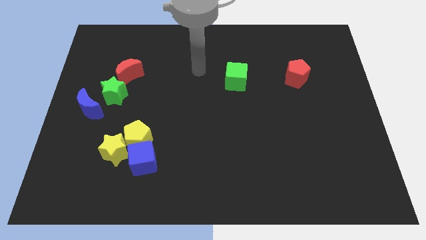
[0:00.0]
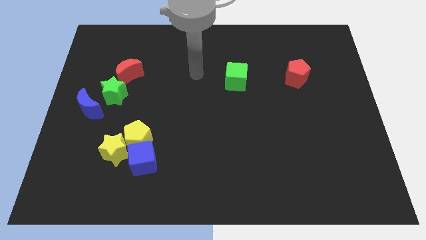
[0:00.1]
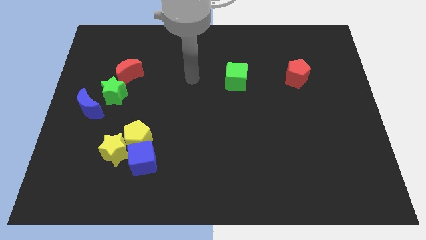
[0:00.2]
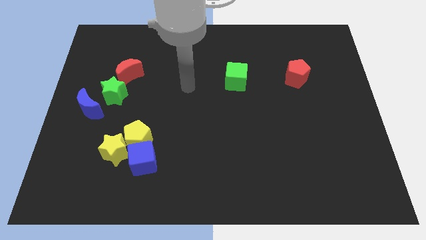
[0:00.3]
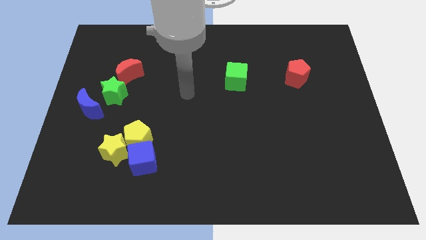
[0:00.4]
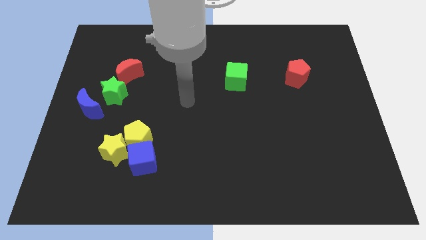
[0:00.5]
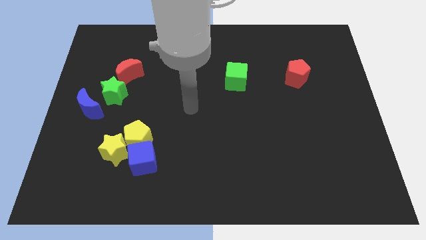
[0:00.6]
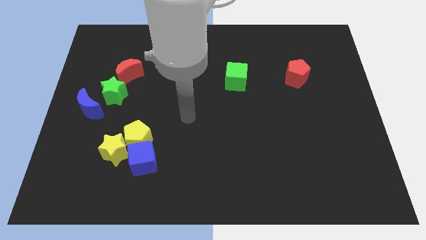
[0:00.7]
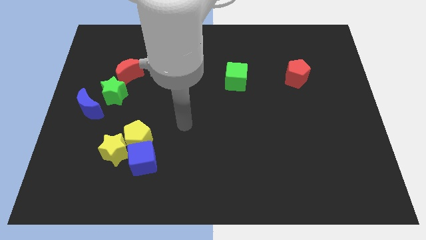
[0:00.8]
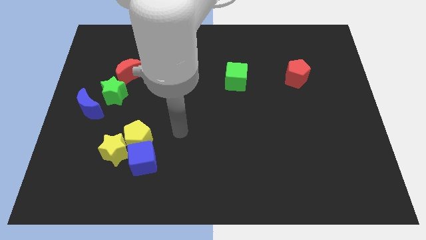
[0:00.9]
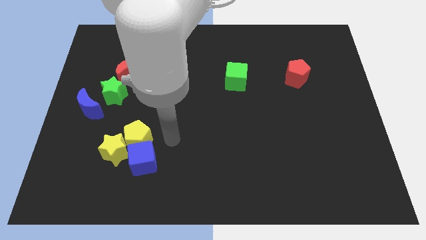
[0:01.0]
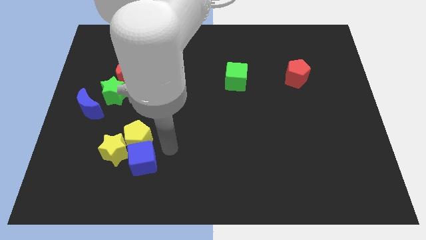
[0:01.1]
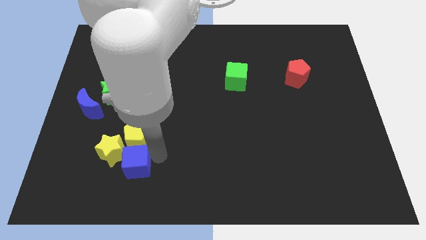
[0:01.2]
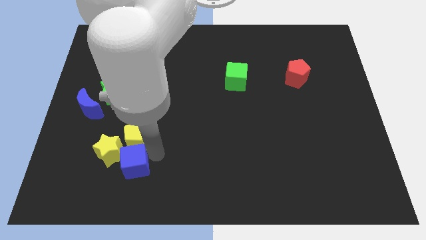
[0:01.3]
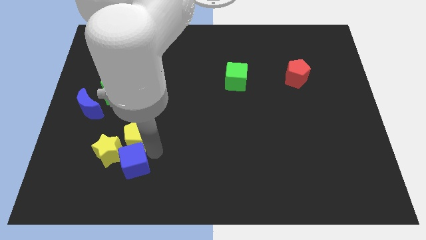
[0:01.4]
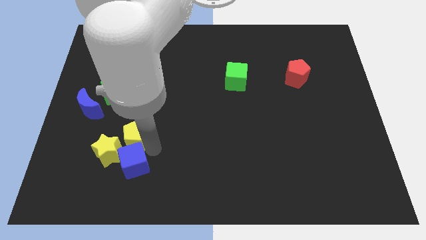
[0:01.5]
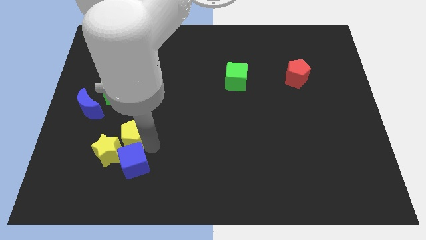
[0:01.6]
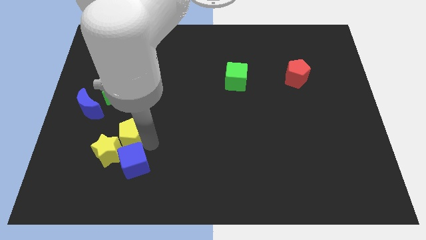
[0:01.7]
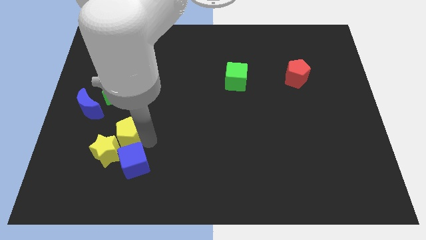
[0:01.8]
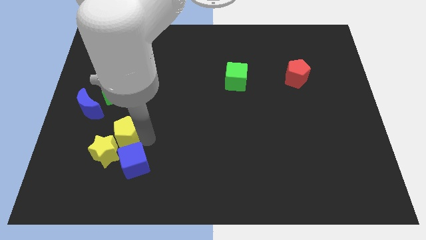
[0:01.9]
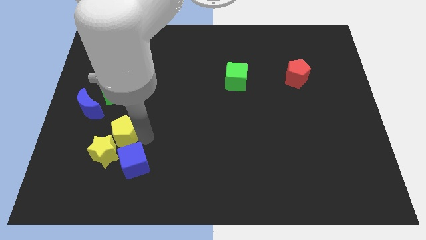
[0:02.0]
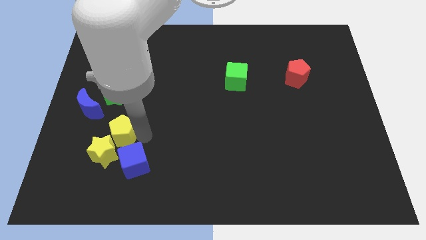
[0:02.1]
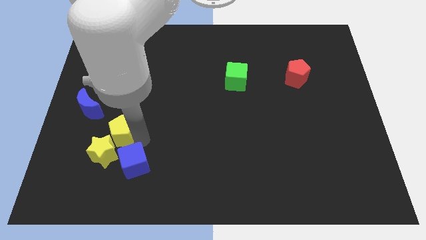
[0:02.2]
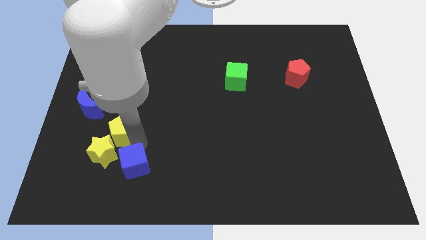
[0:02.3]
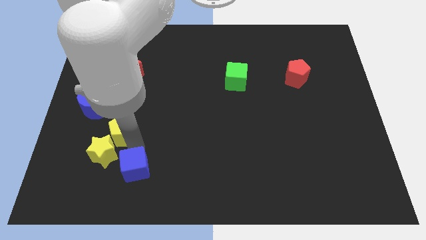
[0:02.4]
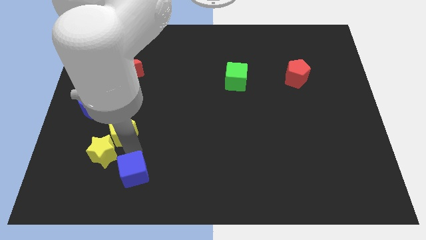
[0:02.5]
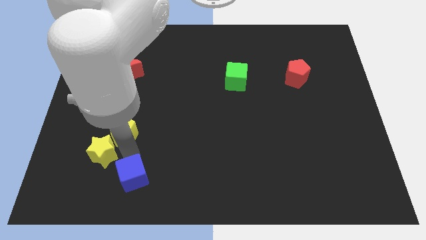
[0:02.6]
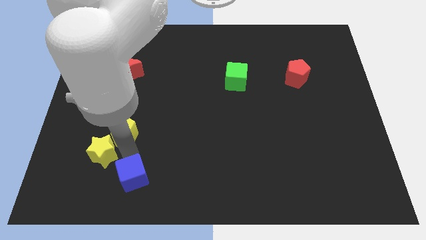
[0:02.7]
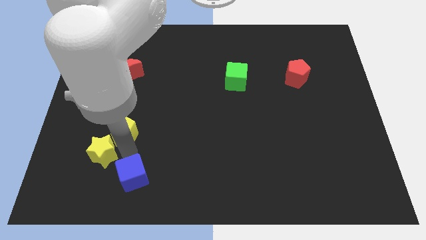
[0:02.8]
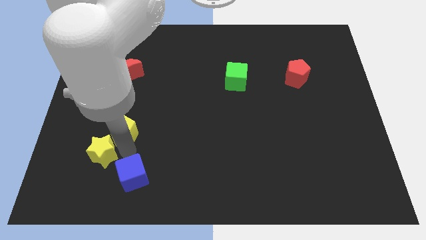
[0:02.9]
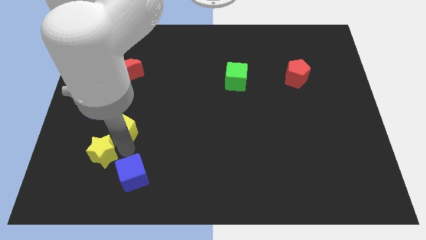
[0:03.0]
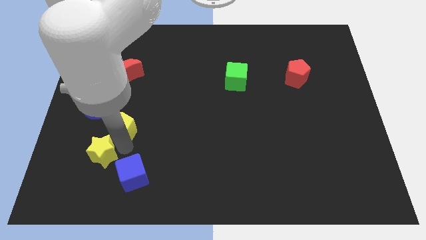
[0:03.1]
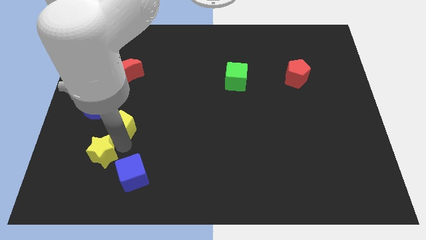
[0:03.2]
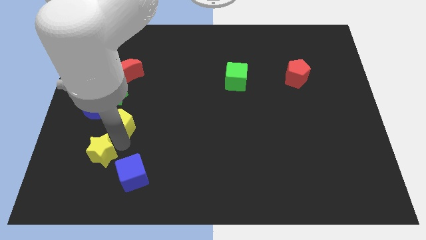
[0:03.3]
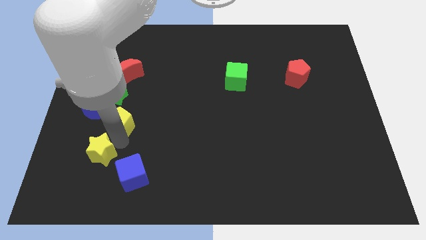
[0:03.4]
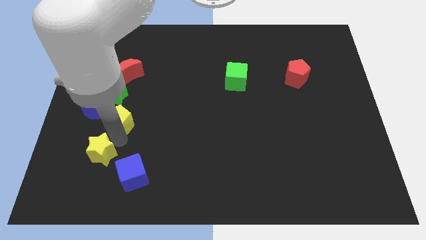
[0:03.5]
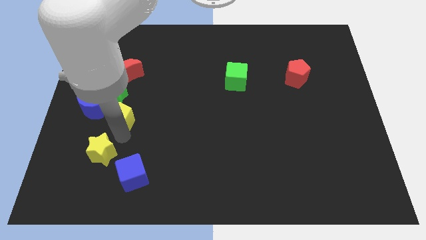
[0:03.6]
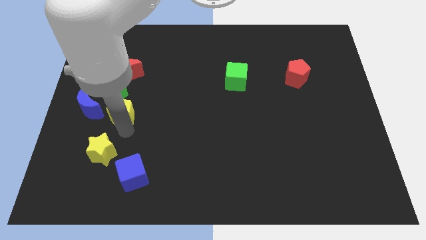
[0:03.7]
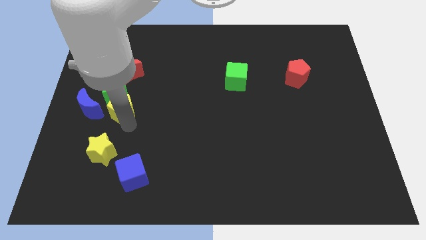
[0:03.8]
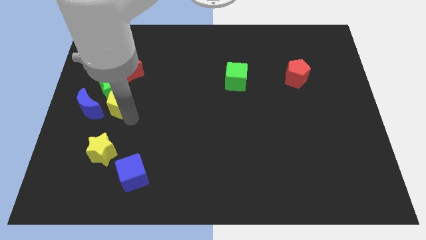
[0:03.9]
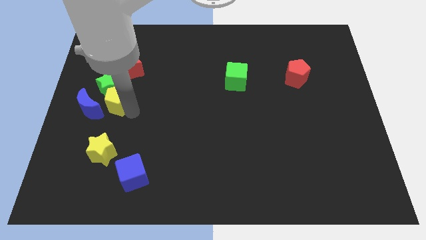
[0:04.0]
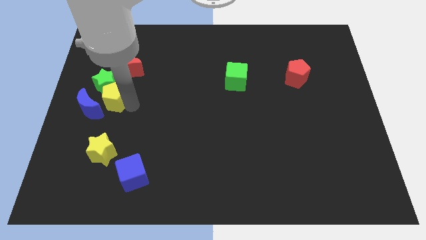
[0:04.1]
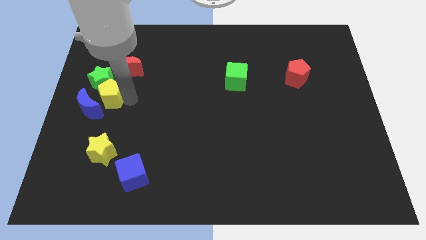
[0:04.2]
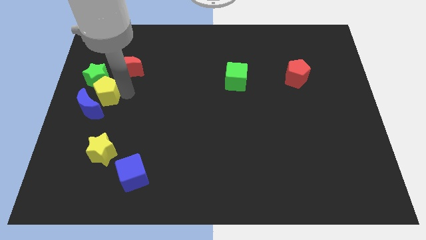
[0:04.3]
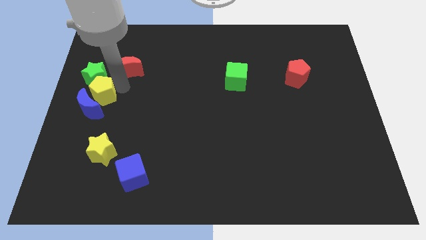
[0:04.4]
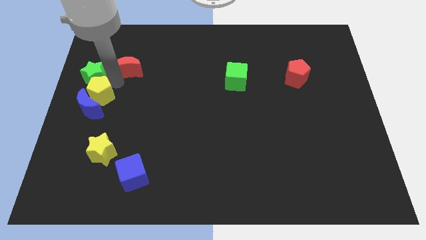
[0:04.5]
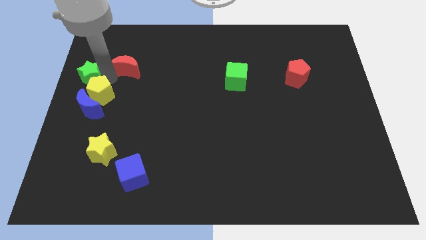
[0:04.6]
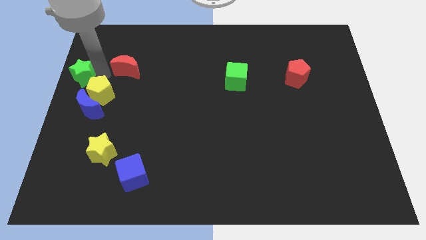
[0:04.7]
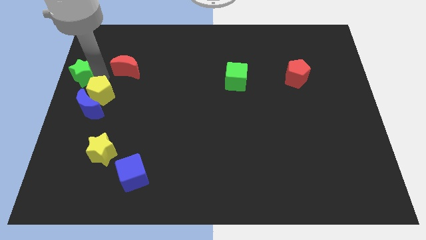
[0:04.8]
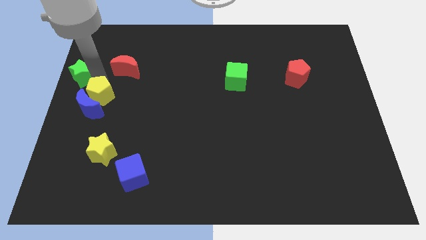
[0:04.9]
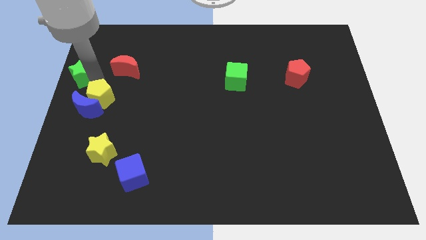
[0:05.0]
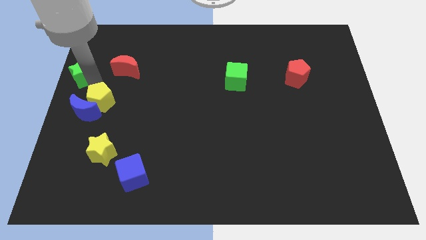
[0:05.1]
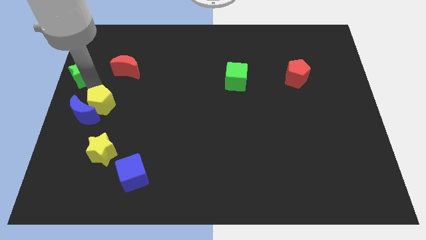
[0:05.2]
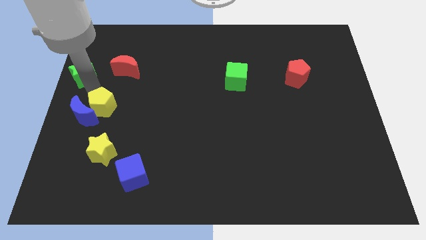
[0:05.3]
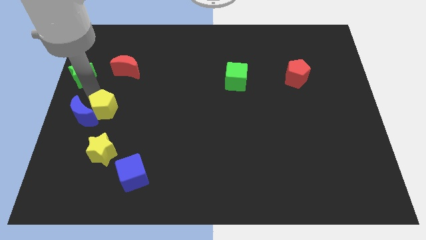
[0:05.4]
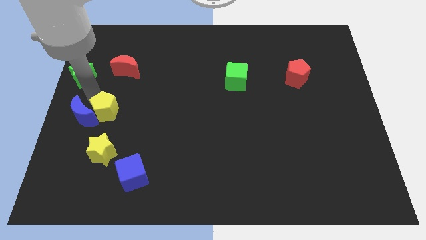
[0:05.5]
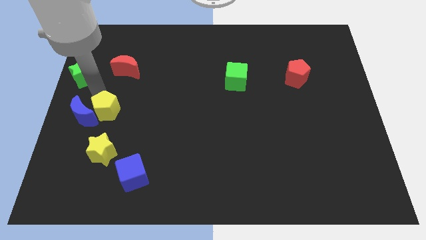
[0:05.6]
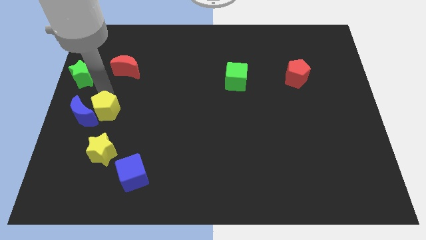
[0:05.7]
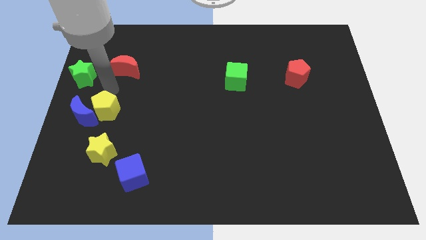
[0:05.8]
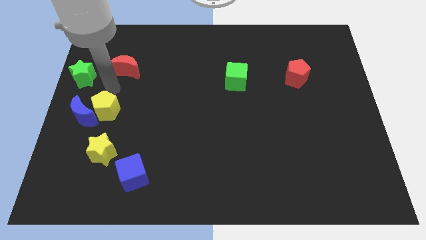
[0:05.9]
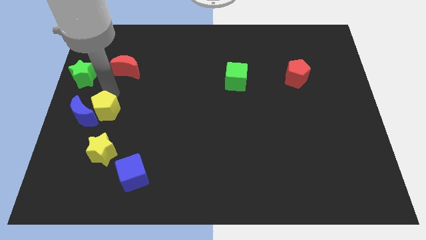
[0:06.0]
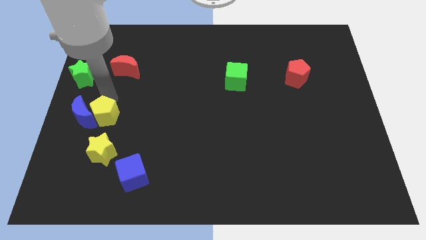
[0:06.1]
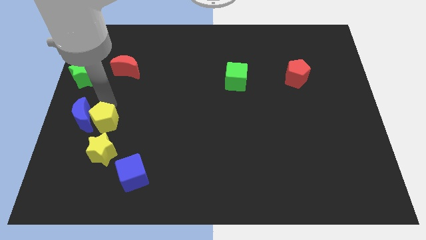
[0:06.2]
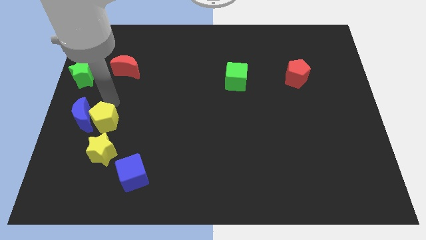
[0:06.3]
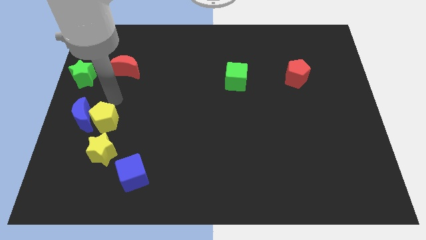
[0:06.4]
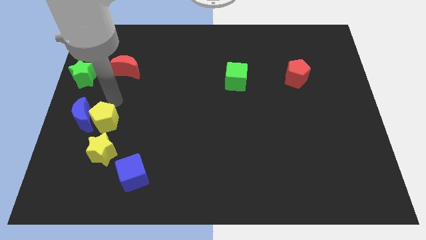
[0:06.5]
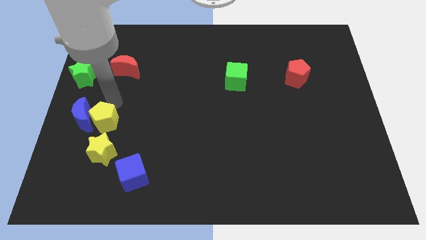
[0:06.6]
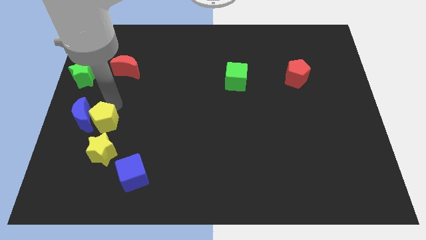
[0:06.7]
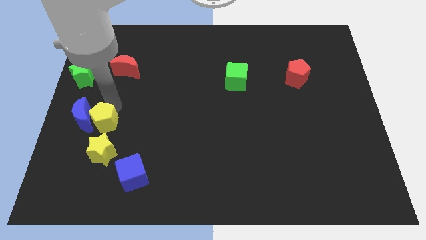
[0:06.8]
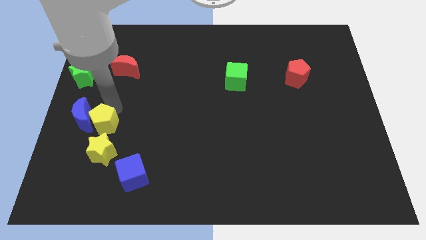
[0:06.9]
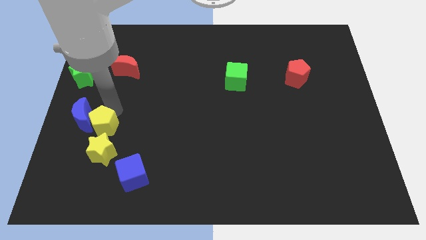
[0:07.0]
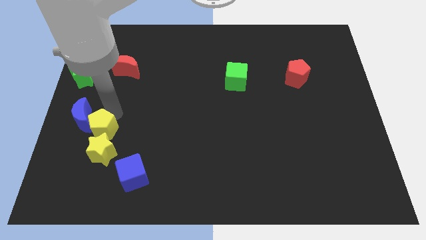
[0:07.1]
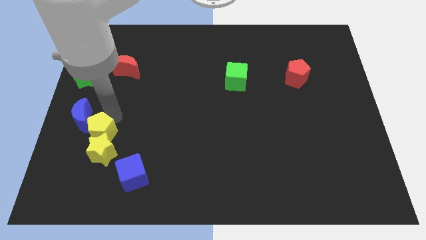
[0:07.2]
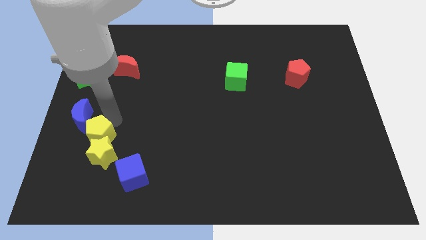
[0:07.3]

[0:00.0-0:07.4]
slide the yellow pentagon below the blue moon
